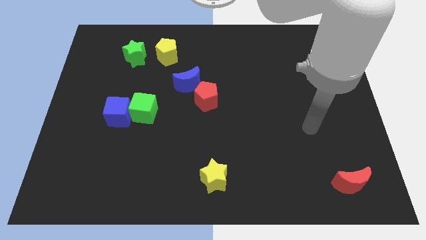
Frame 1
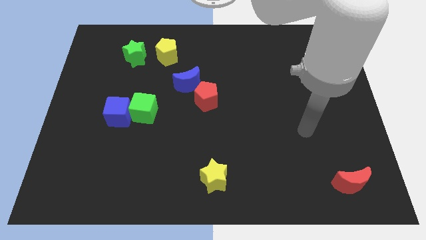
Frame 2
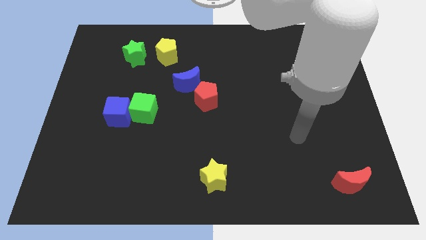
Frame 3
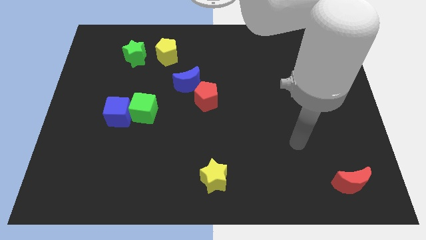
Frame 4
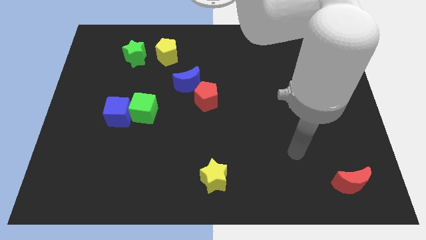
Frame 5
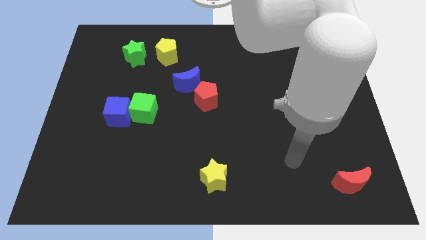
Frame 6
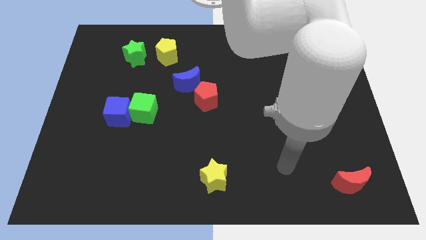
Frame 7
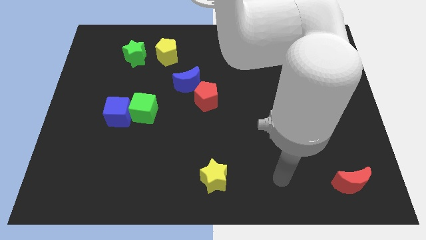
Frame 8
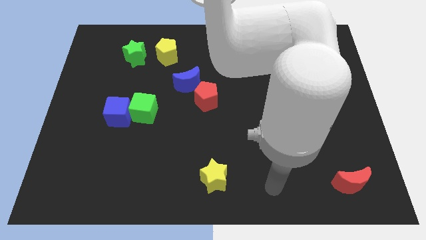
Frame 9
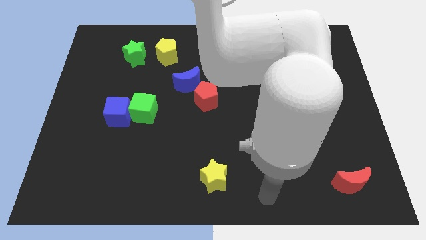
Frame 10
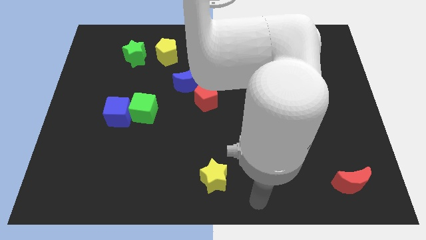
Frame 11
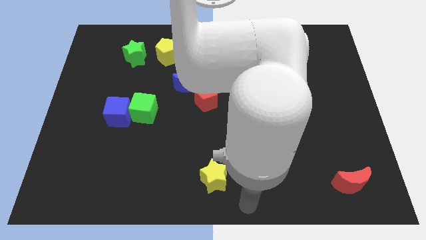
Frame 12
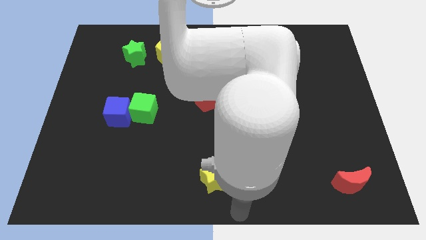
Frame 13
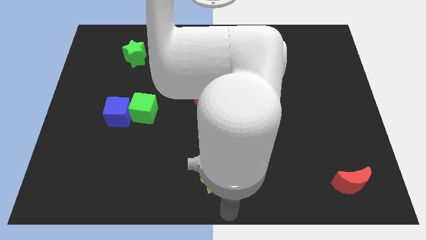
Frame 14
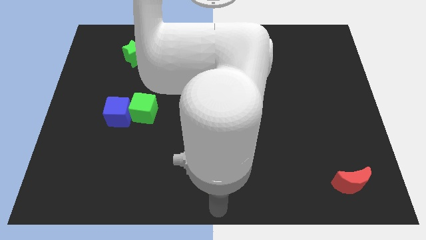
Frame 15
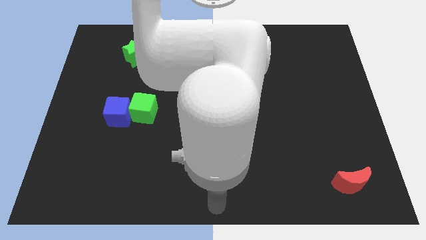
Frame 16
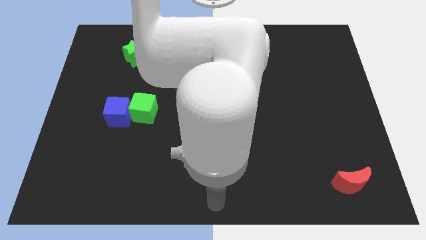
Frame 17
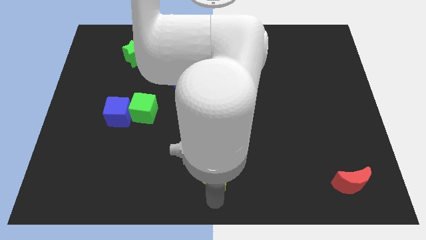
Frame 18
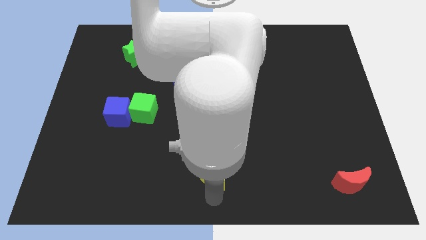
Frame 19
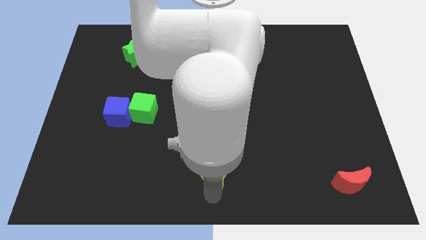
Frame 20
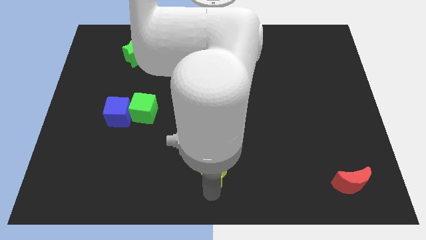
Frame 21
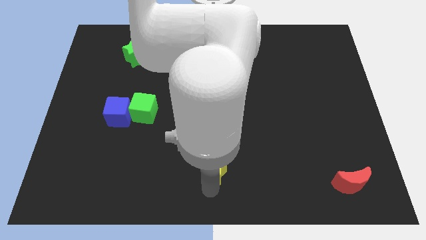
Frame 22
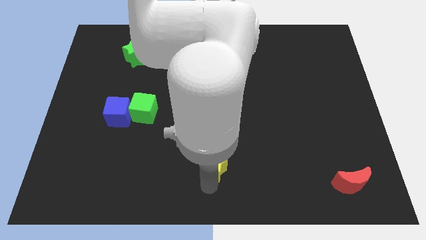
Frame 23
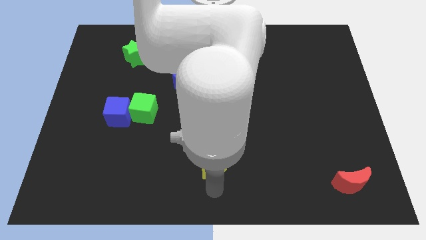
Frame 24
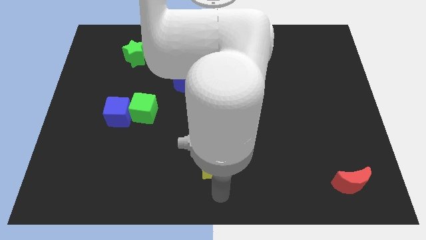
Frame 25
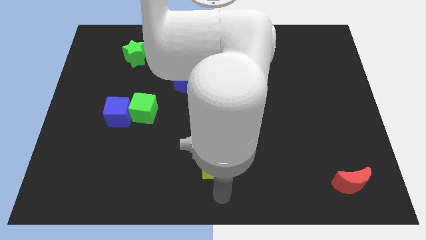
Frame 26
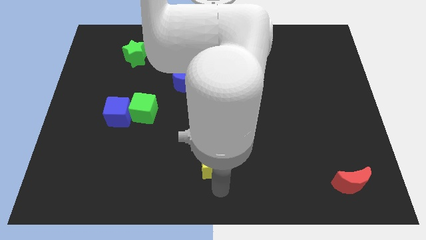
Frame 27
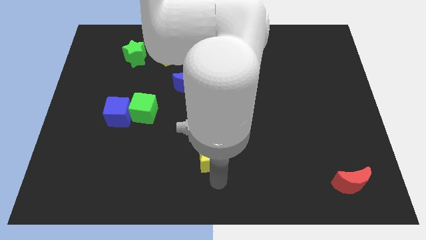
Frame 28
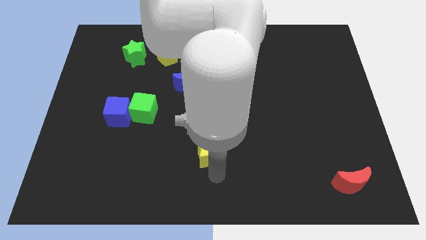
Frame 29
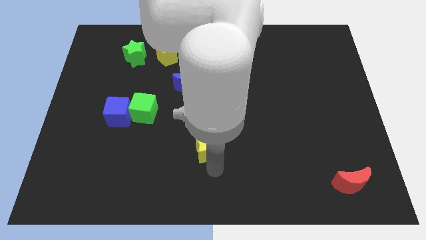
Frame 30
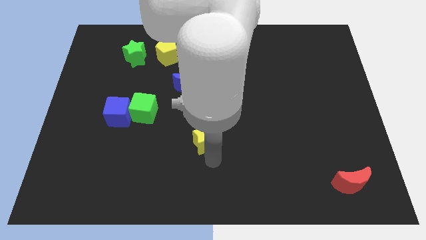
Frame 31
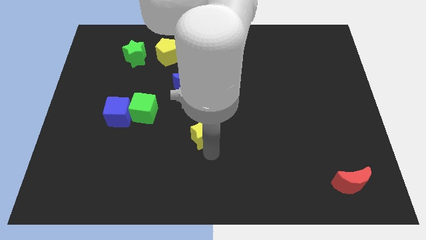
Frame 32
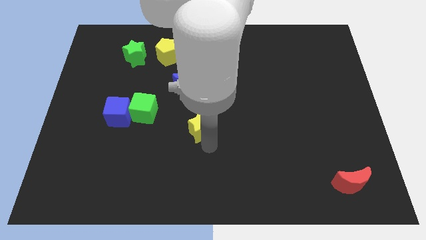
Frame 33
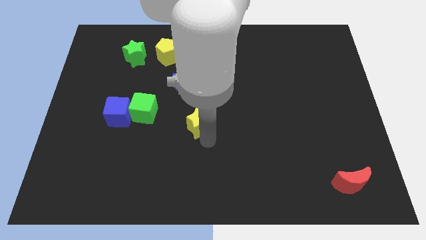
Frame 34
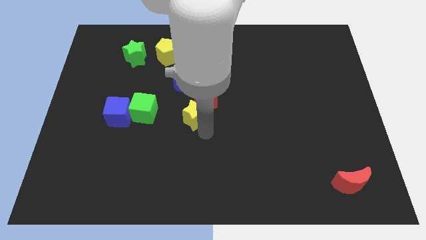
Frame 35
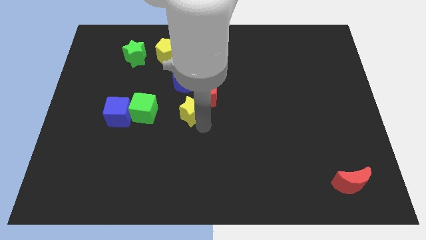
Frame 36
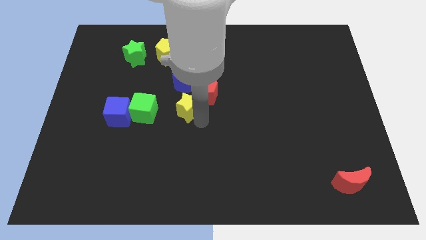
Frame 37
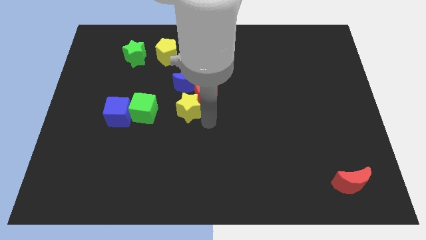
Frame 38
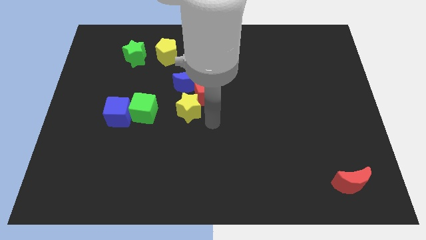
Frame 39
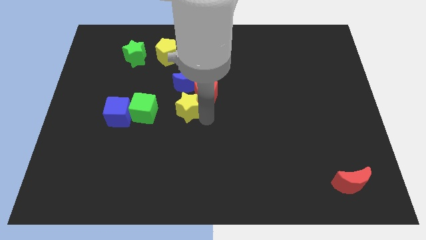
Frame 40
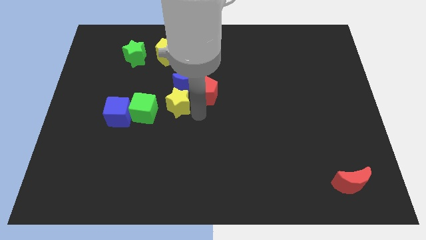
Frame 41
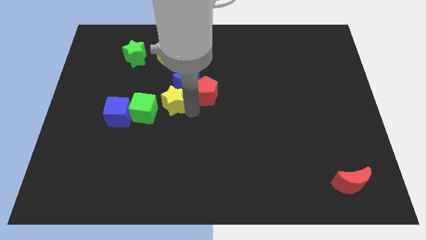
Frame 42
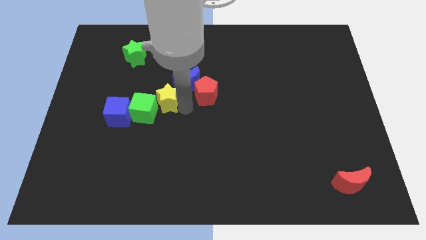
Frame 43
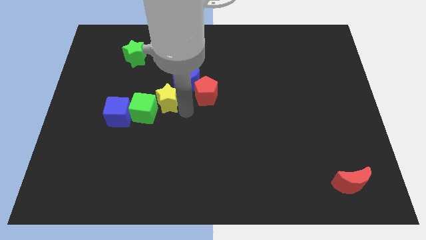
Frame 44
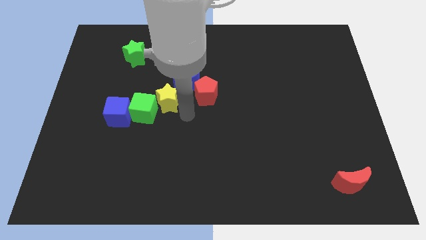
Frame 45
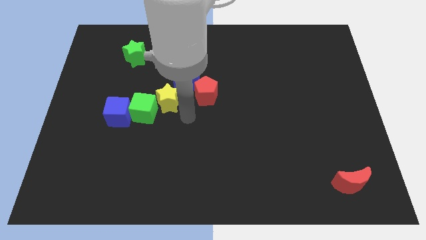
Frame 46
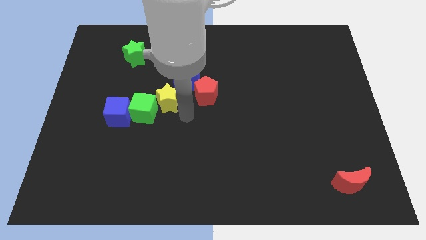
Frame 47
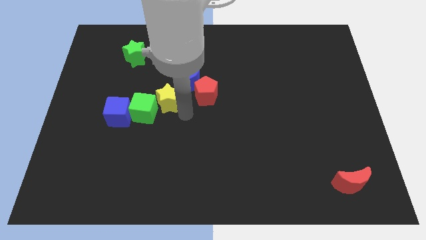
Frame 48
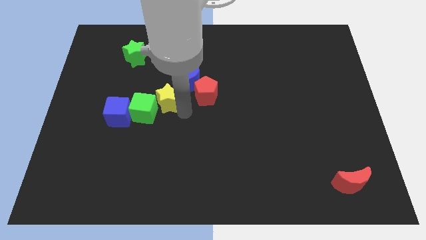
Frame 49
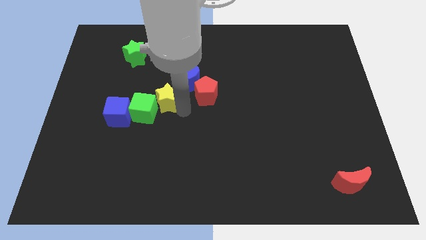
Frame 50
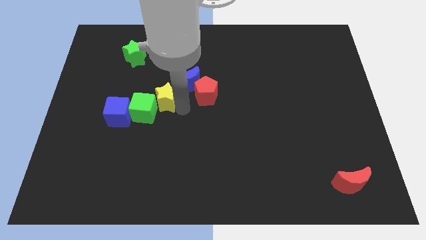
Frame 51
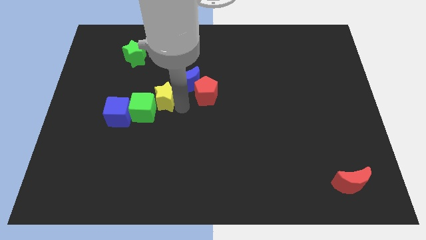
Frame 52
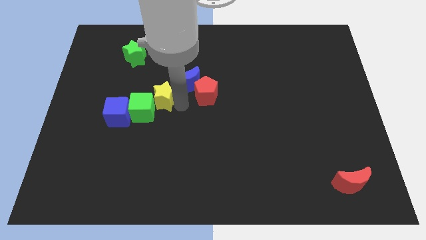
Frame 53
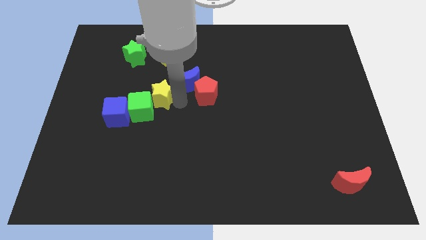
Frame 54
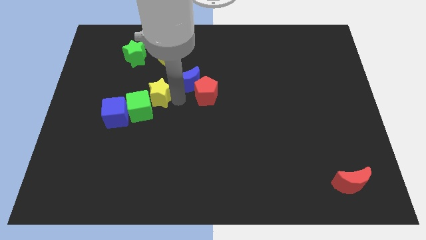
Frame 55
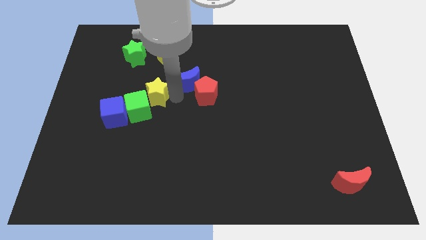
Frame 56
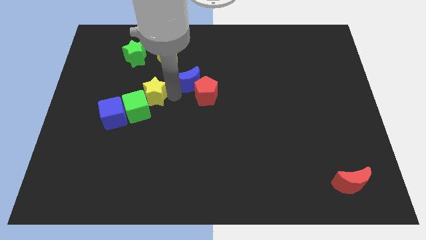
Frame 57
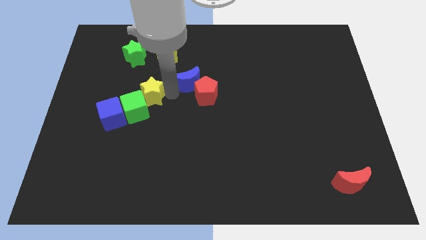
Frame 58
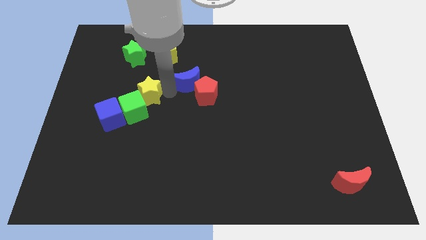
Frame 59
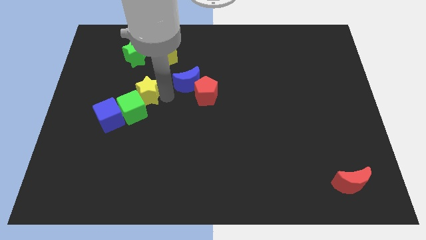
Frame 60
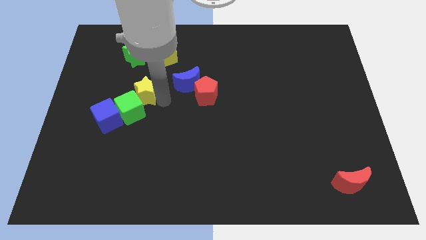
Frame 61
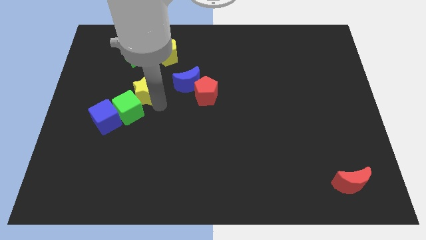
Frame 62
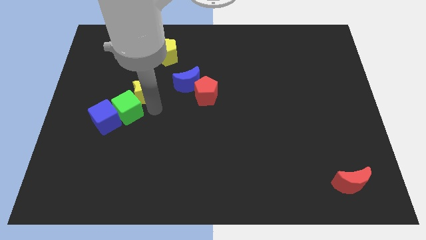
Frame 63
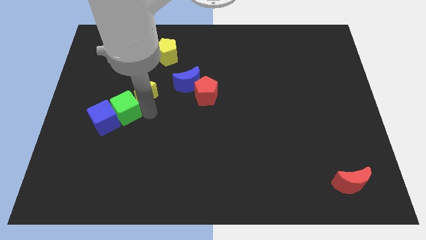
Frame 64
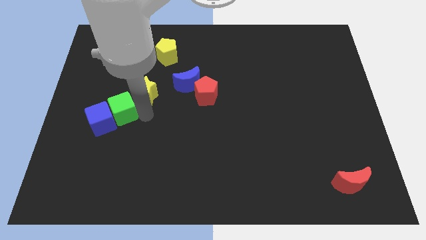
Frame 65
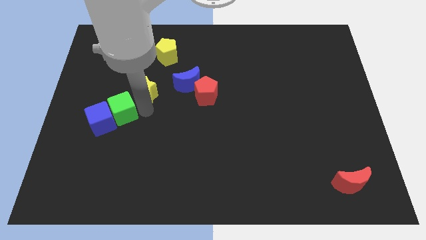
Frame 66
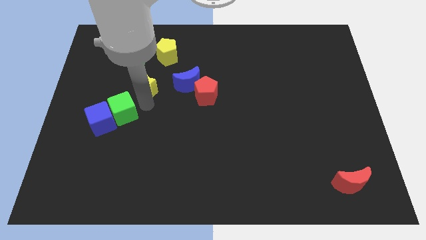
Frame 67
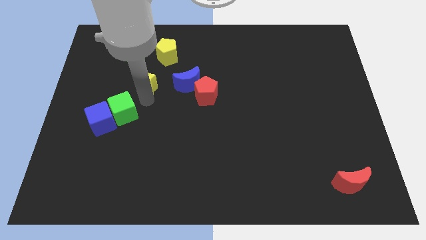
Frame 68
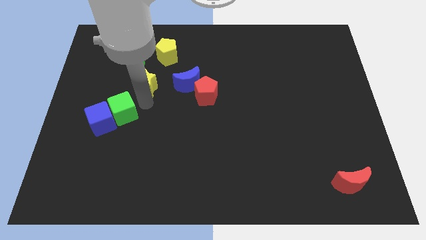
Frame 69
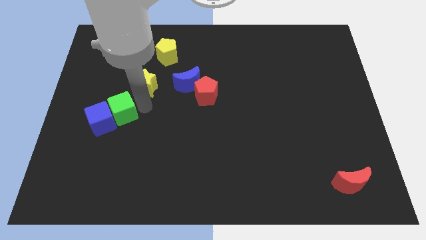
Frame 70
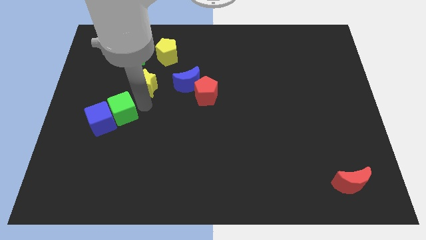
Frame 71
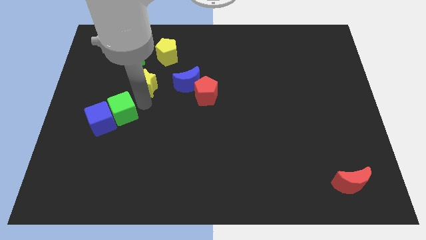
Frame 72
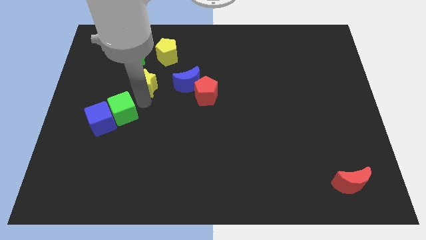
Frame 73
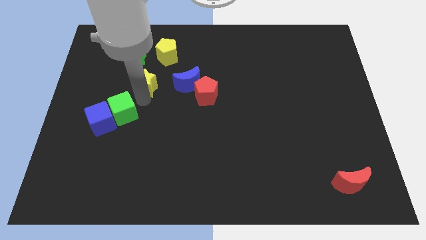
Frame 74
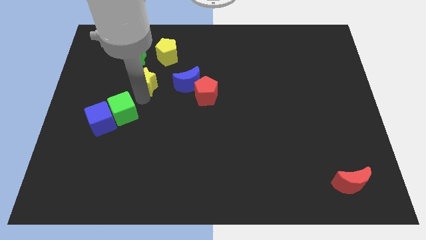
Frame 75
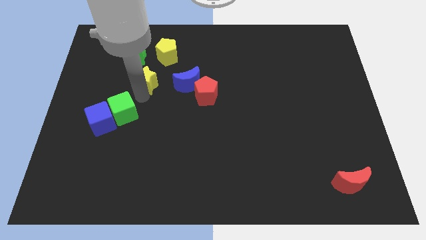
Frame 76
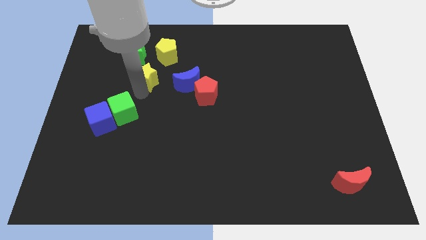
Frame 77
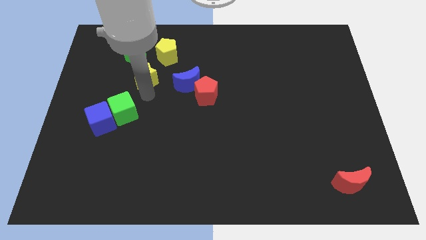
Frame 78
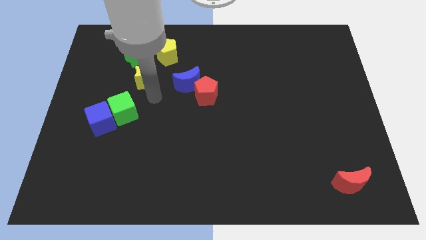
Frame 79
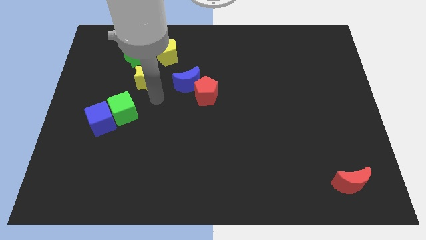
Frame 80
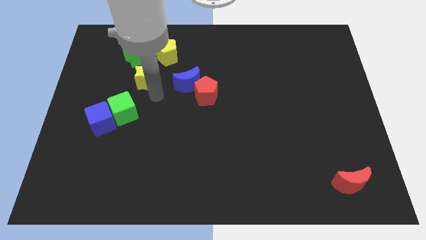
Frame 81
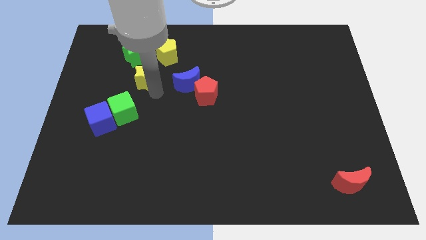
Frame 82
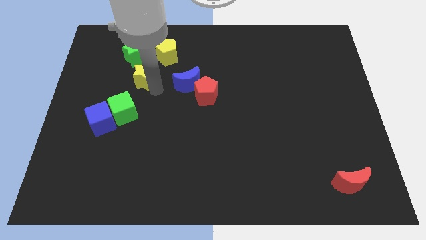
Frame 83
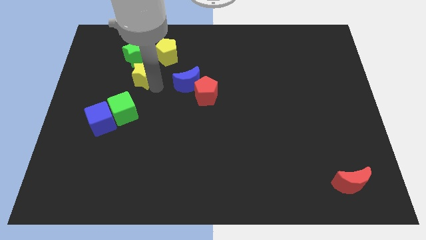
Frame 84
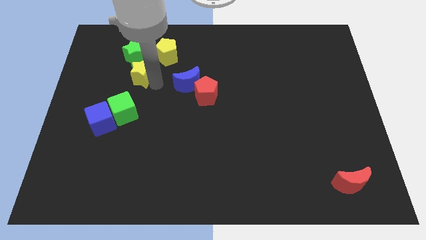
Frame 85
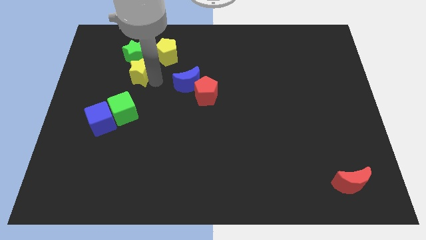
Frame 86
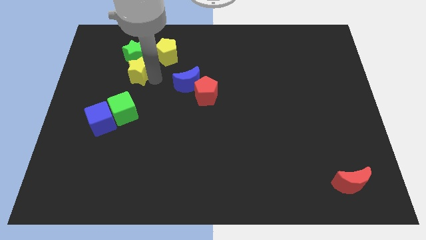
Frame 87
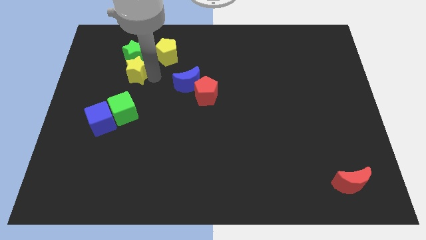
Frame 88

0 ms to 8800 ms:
put the yellow star close to the green star
